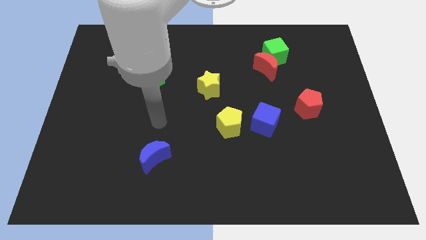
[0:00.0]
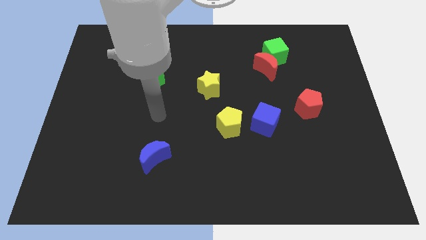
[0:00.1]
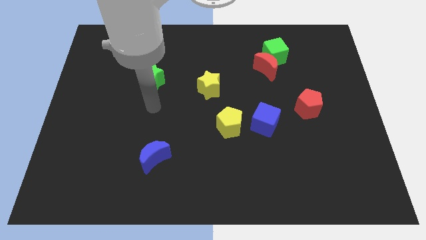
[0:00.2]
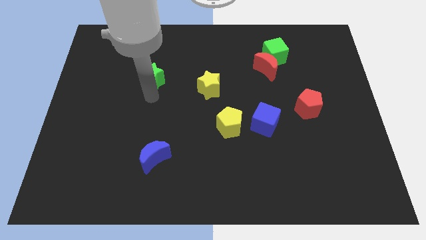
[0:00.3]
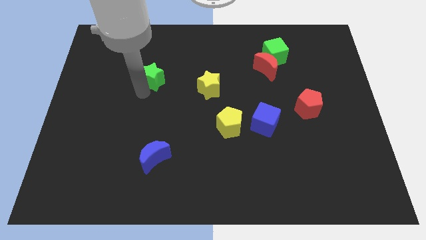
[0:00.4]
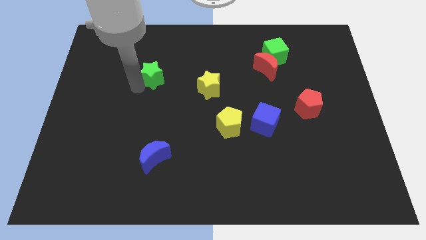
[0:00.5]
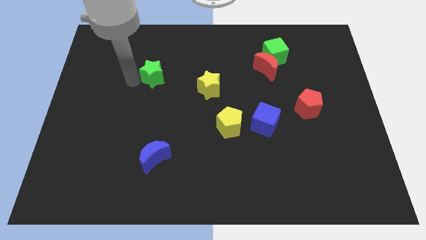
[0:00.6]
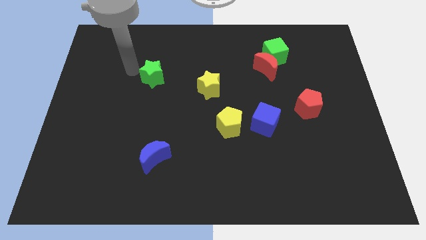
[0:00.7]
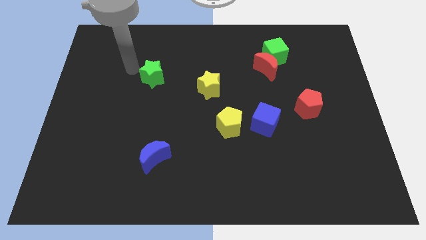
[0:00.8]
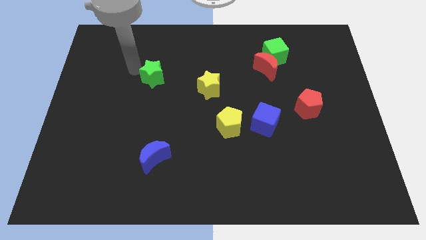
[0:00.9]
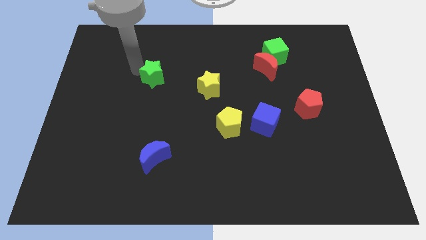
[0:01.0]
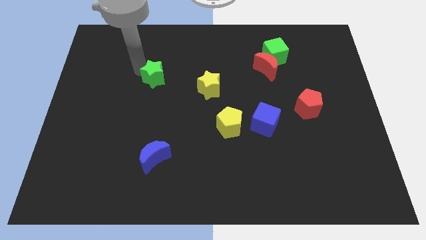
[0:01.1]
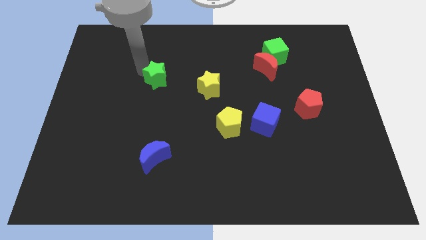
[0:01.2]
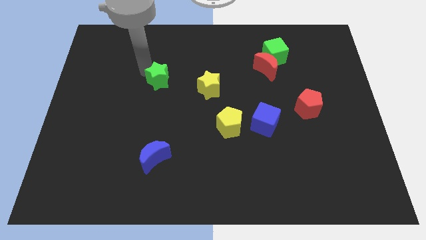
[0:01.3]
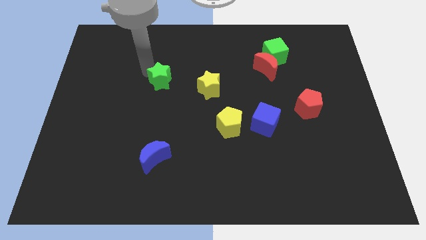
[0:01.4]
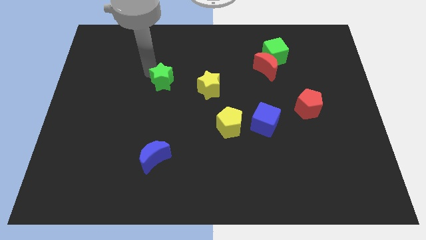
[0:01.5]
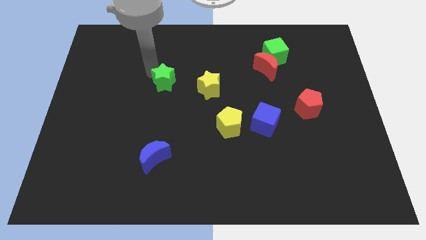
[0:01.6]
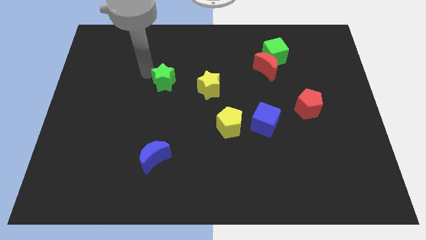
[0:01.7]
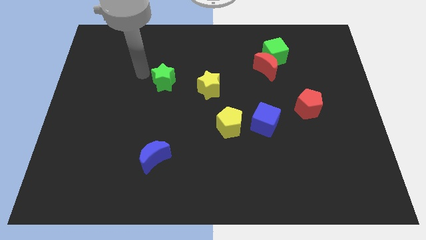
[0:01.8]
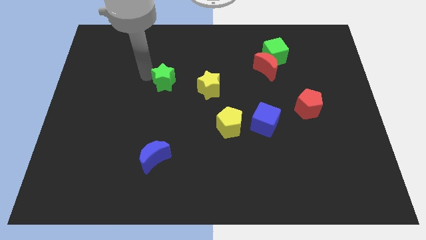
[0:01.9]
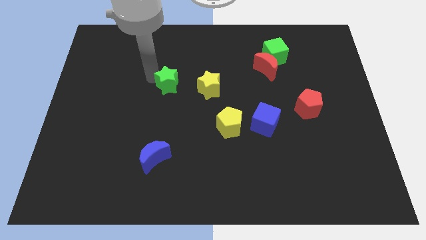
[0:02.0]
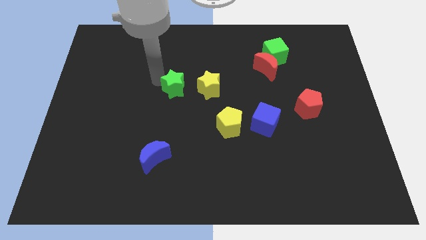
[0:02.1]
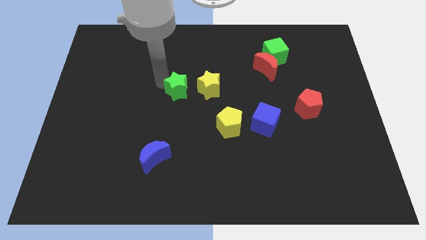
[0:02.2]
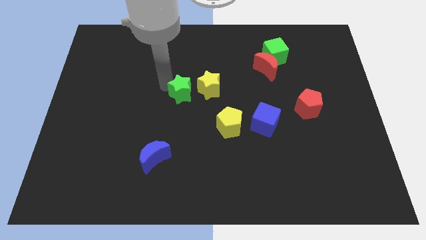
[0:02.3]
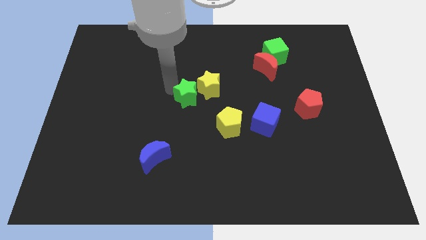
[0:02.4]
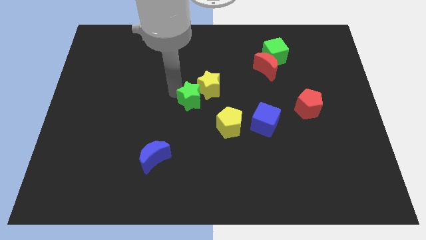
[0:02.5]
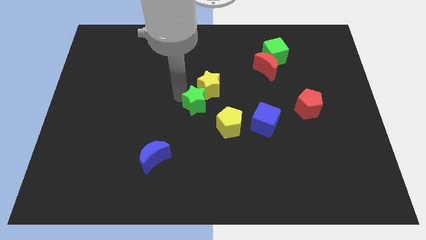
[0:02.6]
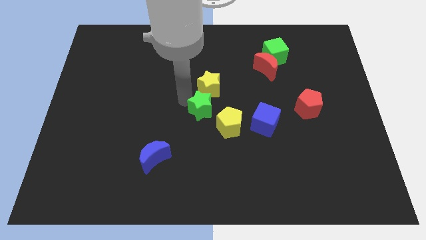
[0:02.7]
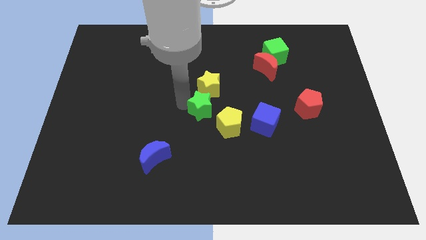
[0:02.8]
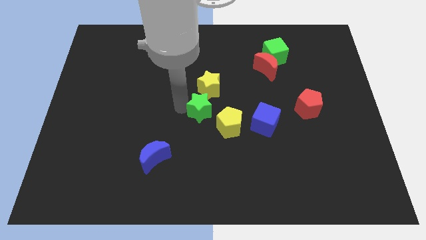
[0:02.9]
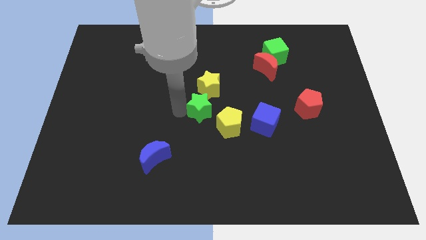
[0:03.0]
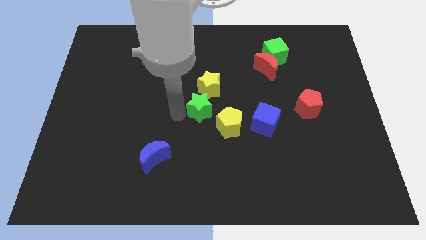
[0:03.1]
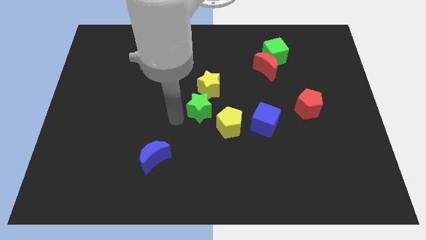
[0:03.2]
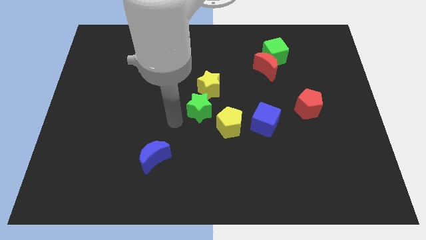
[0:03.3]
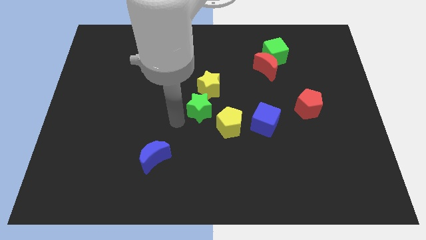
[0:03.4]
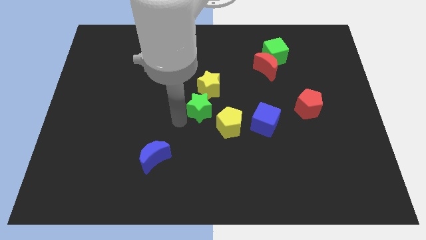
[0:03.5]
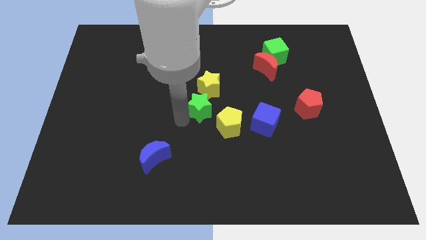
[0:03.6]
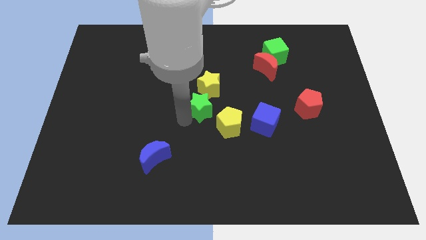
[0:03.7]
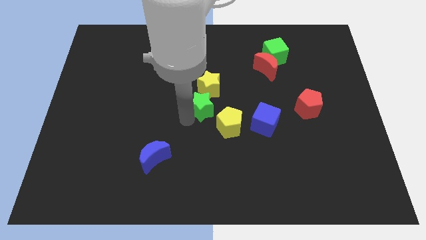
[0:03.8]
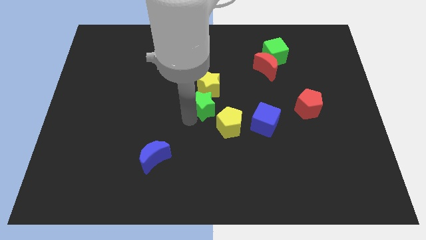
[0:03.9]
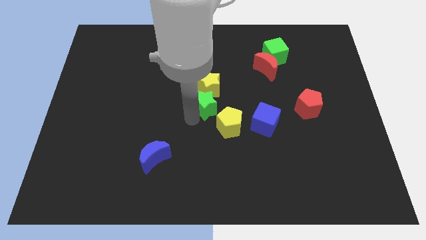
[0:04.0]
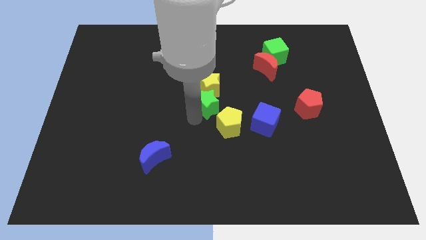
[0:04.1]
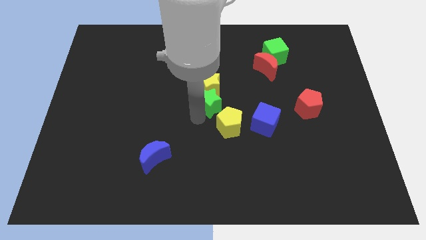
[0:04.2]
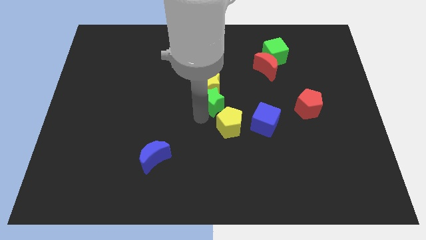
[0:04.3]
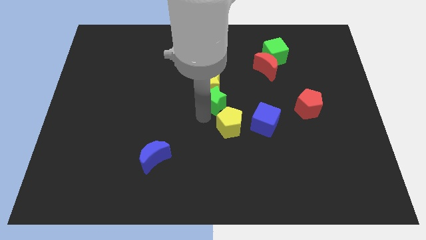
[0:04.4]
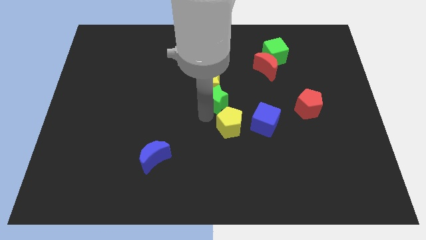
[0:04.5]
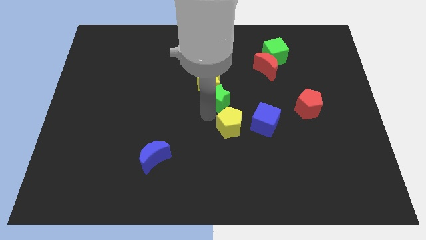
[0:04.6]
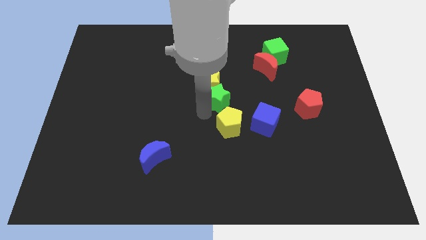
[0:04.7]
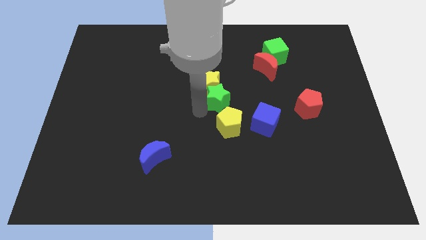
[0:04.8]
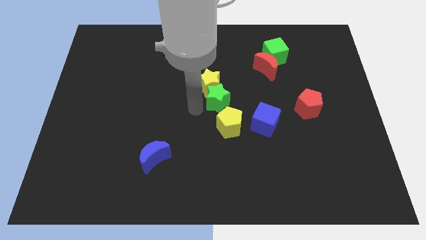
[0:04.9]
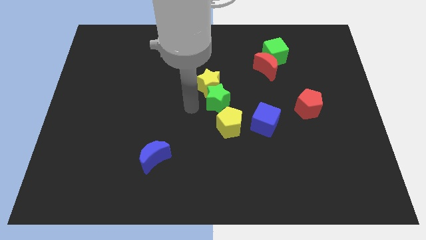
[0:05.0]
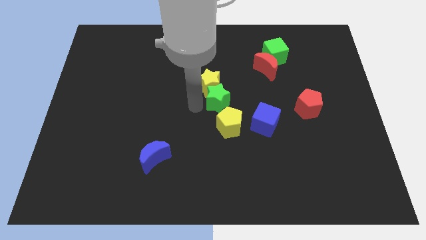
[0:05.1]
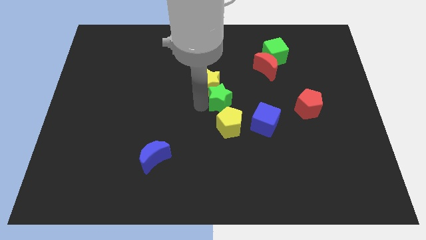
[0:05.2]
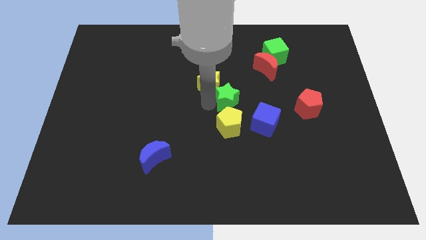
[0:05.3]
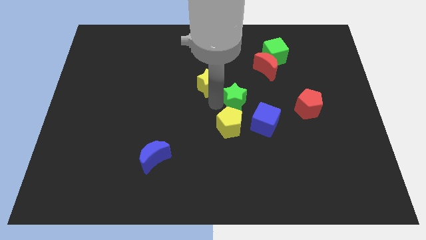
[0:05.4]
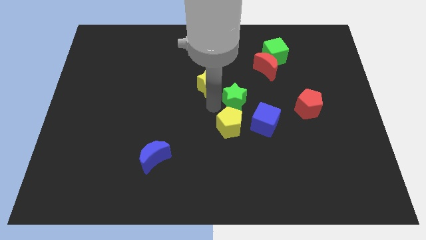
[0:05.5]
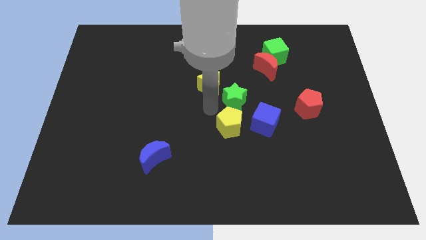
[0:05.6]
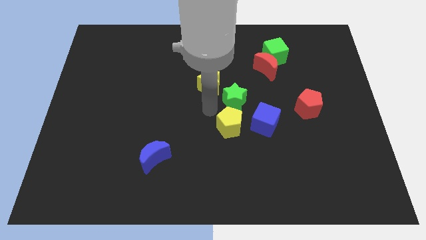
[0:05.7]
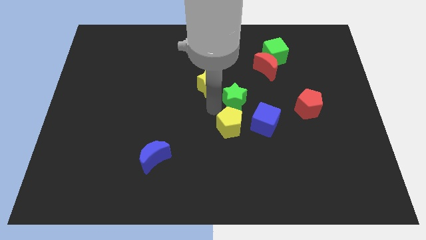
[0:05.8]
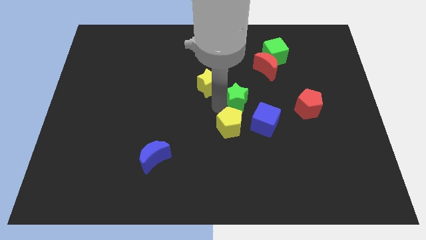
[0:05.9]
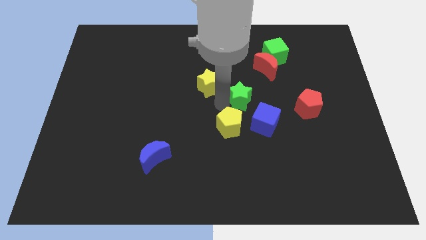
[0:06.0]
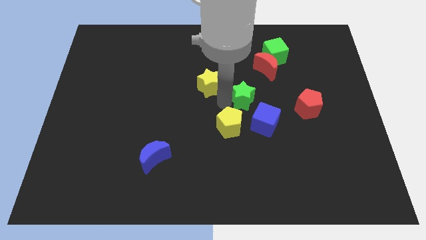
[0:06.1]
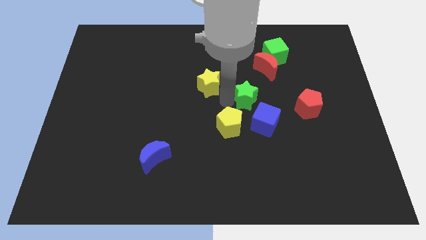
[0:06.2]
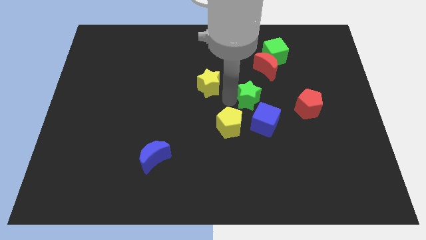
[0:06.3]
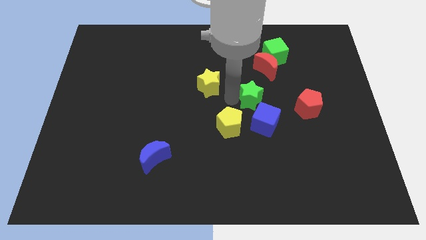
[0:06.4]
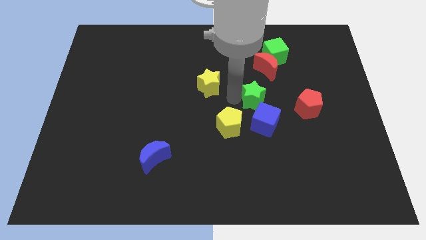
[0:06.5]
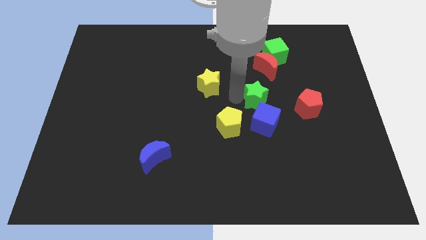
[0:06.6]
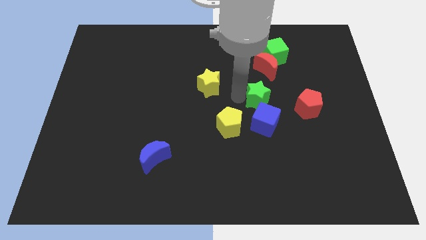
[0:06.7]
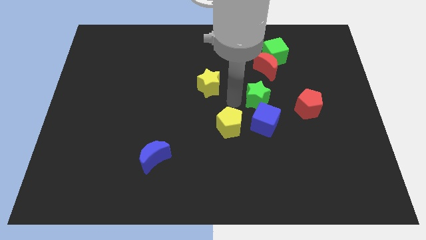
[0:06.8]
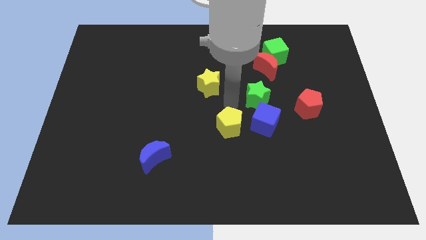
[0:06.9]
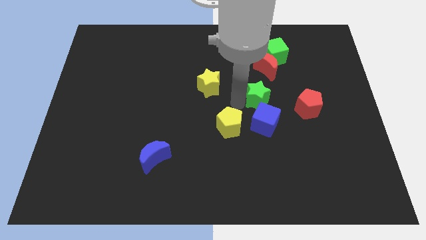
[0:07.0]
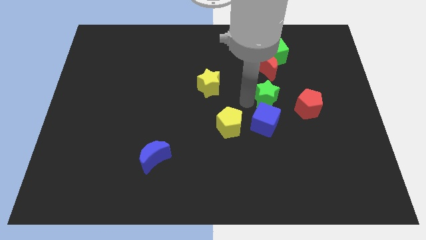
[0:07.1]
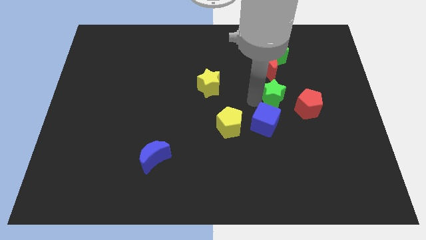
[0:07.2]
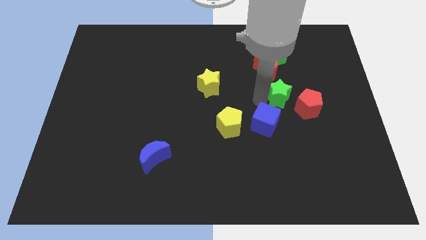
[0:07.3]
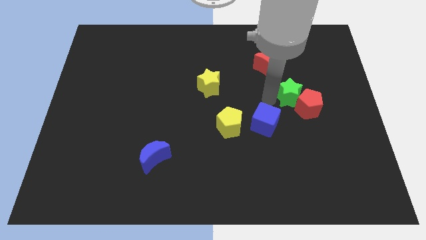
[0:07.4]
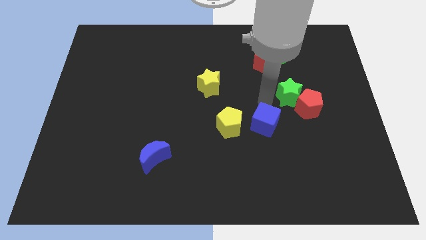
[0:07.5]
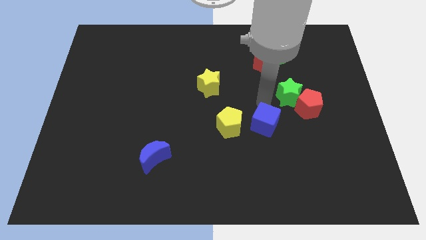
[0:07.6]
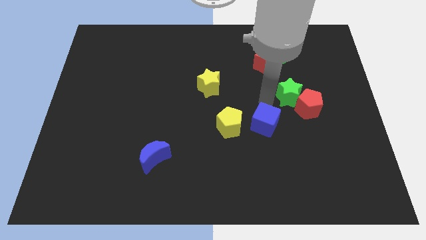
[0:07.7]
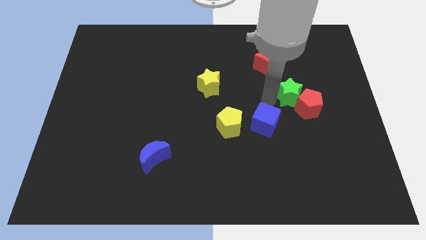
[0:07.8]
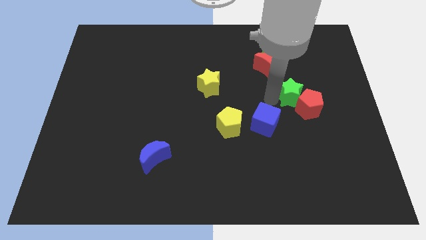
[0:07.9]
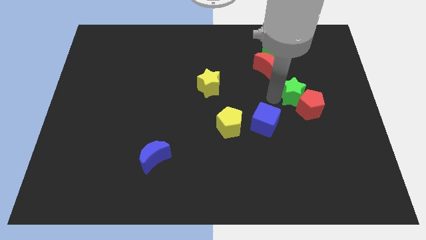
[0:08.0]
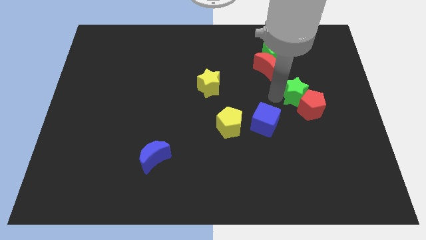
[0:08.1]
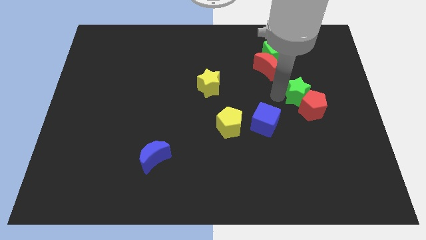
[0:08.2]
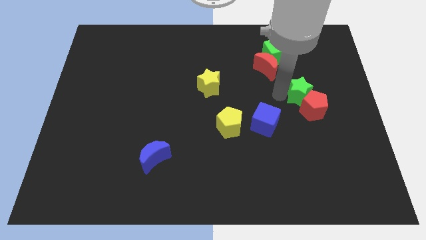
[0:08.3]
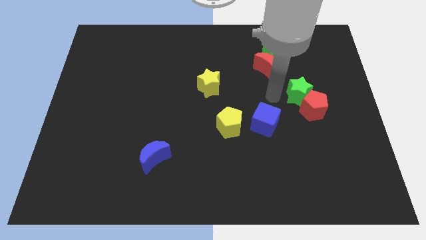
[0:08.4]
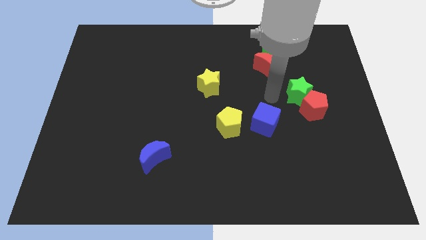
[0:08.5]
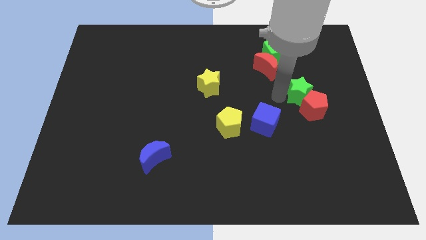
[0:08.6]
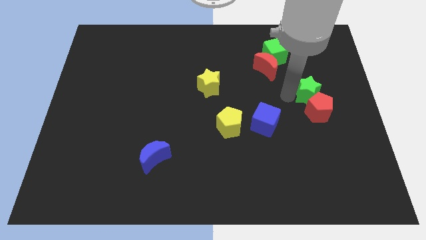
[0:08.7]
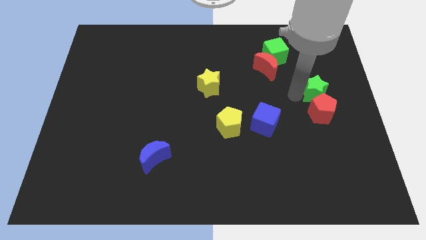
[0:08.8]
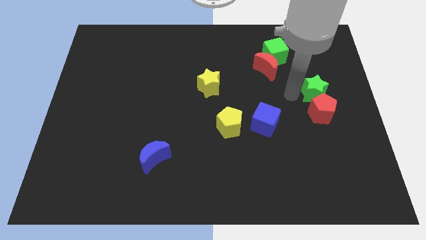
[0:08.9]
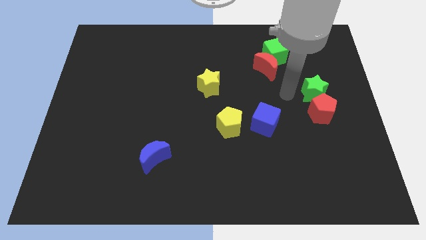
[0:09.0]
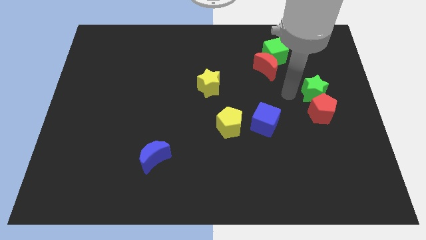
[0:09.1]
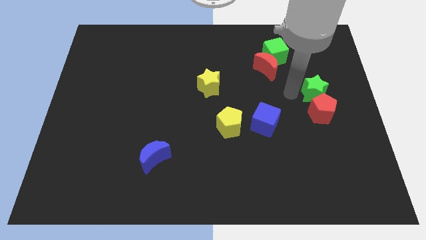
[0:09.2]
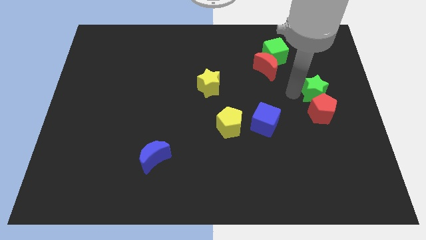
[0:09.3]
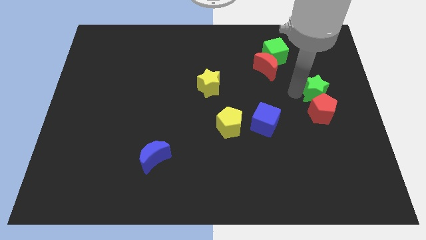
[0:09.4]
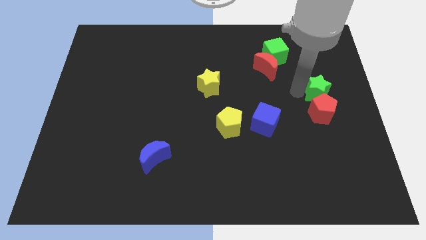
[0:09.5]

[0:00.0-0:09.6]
slide the green star to the right side of the board
